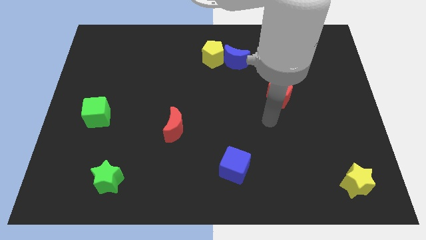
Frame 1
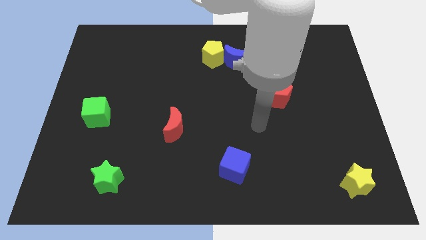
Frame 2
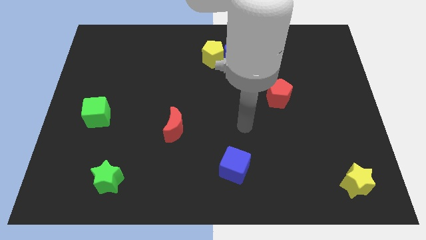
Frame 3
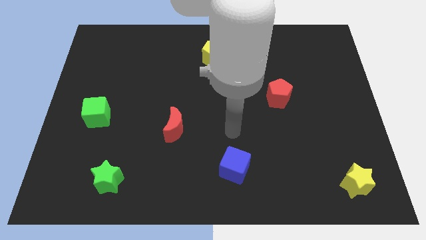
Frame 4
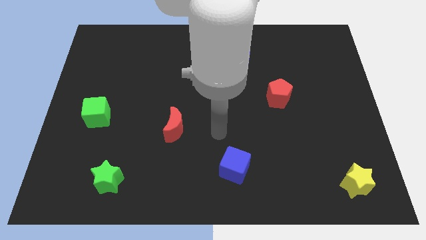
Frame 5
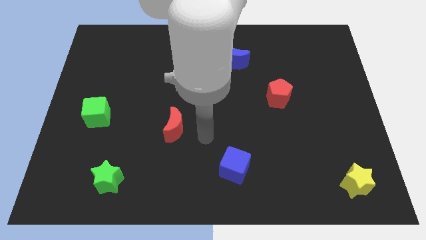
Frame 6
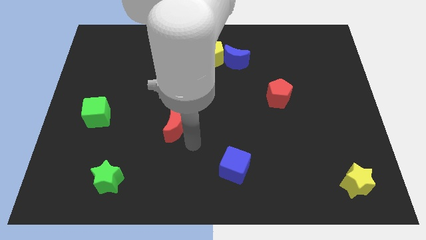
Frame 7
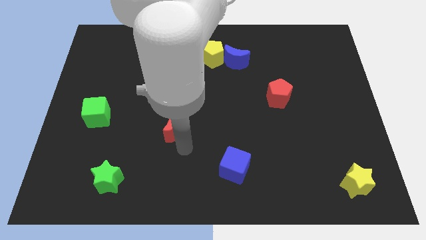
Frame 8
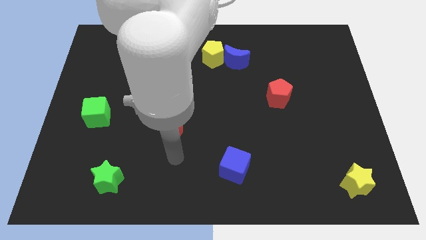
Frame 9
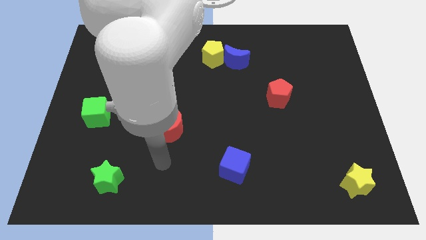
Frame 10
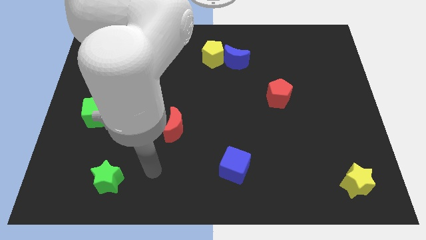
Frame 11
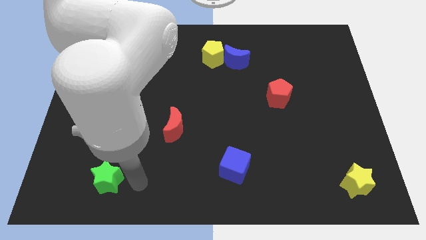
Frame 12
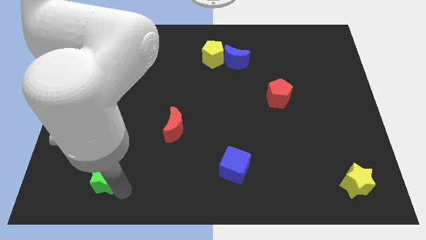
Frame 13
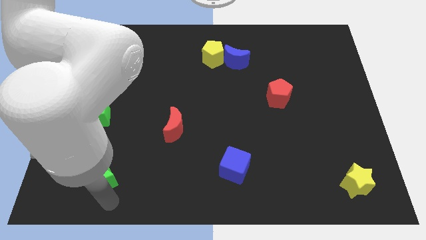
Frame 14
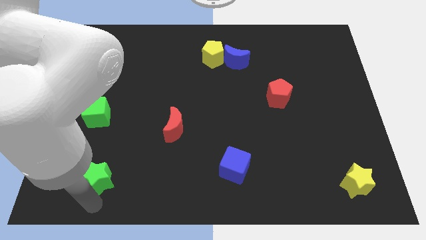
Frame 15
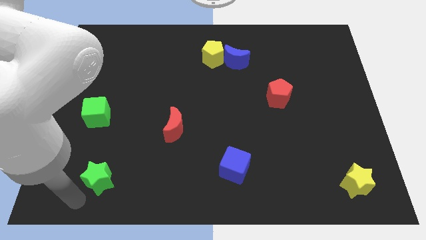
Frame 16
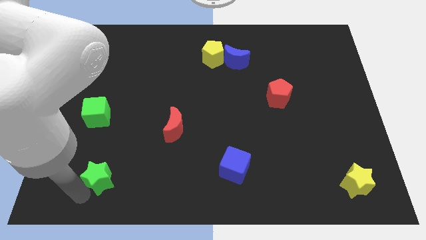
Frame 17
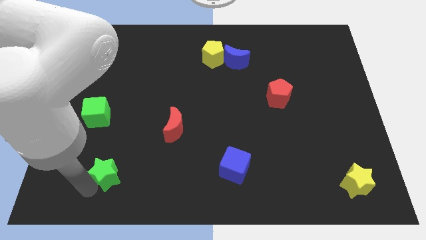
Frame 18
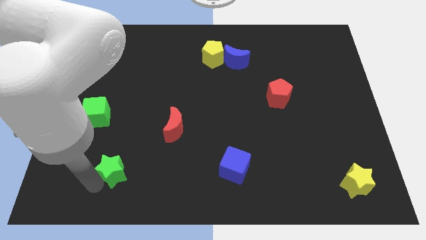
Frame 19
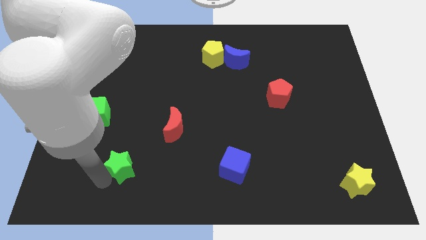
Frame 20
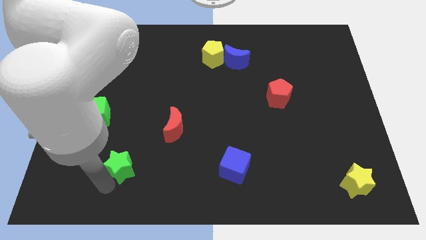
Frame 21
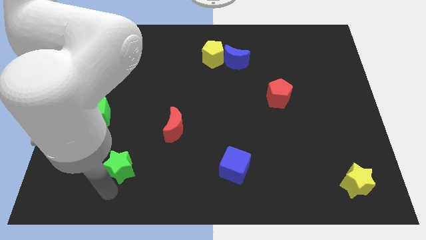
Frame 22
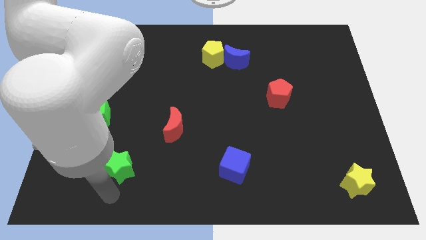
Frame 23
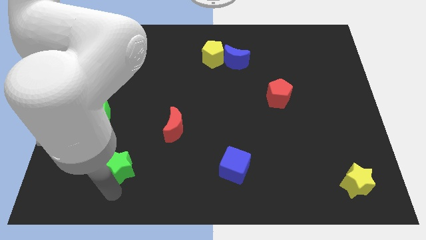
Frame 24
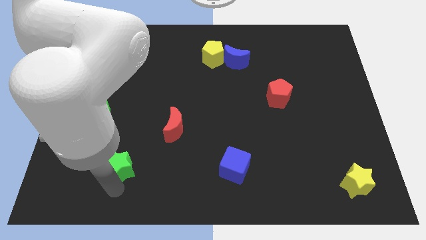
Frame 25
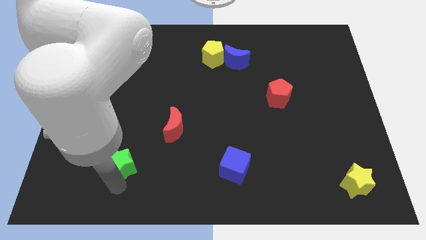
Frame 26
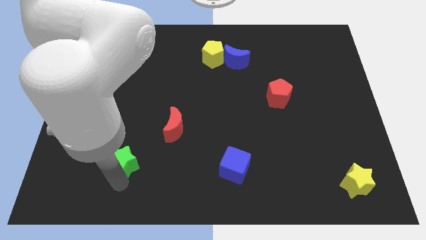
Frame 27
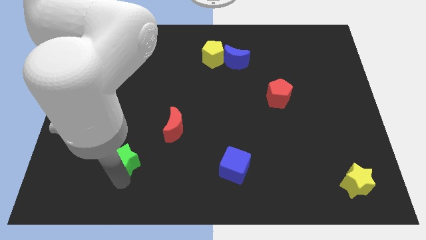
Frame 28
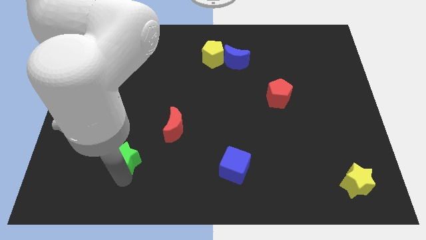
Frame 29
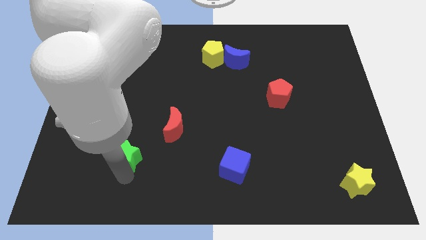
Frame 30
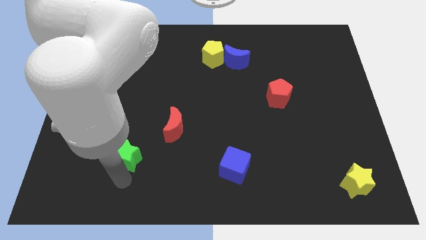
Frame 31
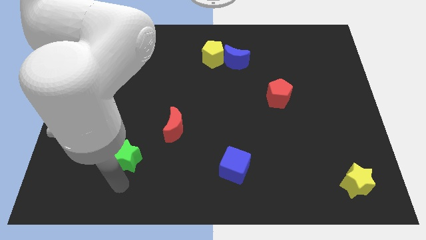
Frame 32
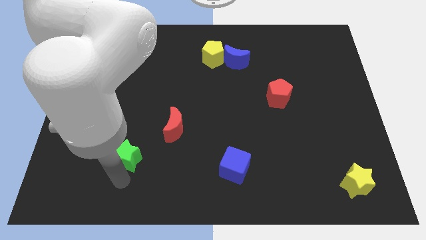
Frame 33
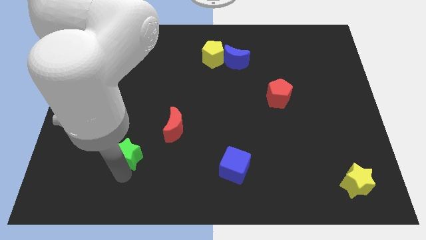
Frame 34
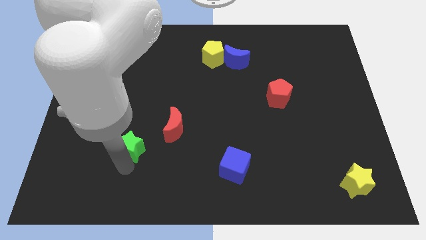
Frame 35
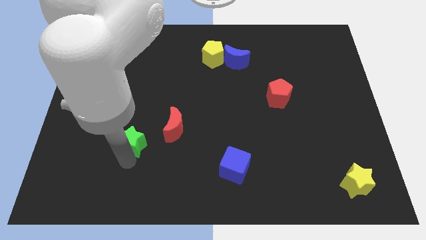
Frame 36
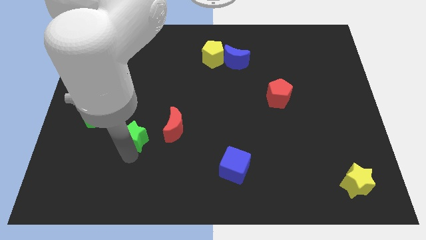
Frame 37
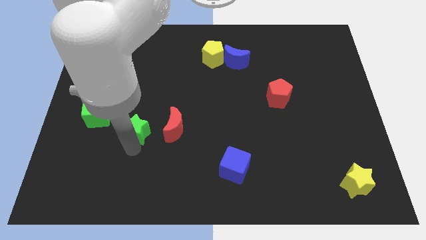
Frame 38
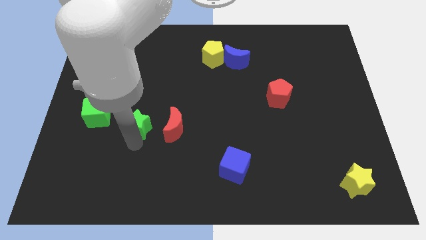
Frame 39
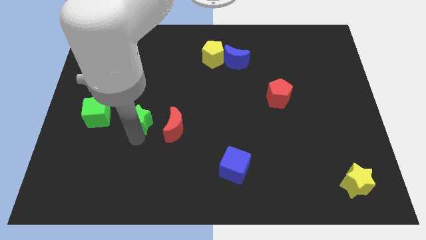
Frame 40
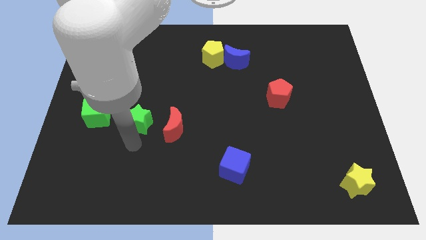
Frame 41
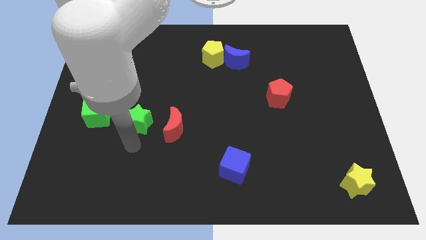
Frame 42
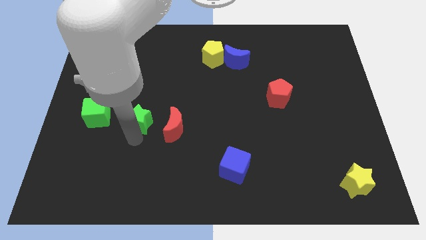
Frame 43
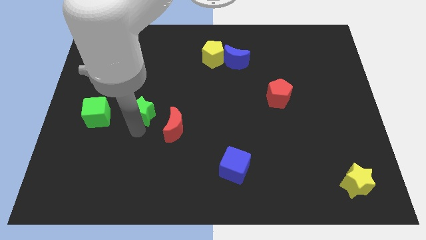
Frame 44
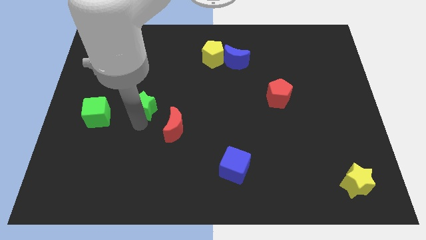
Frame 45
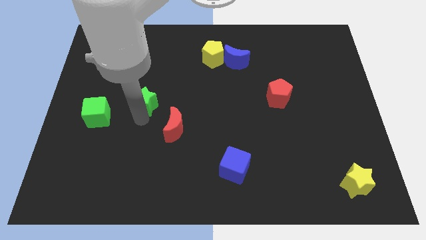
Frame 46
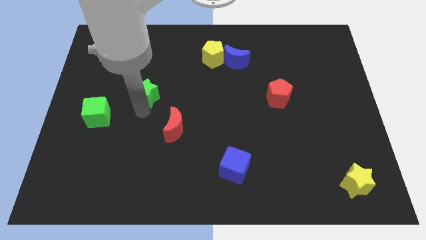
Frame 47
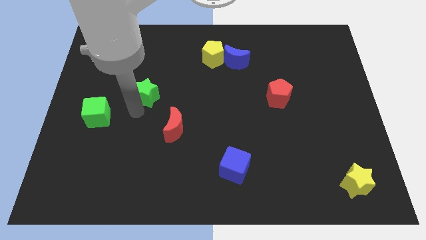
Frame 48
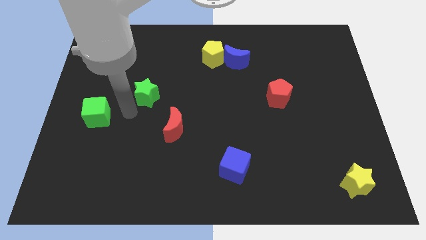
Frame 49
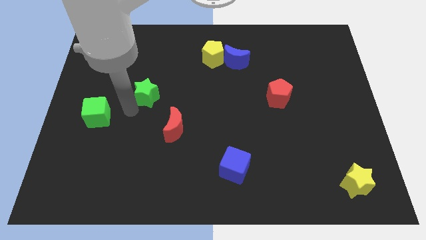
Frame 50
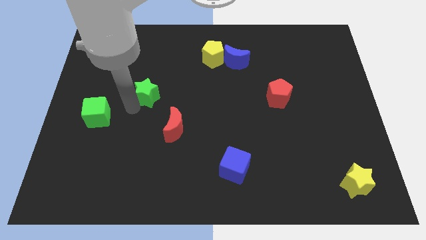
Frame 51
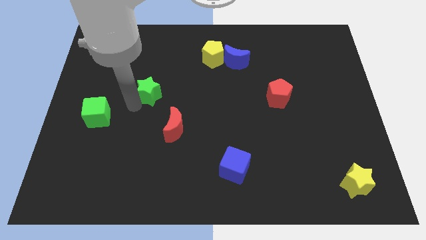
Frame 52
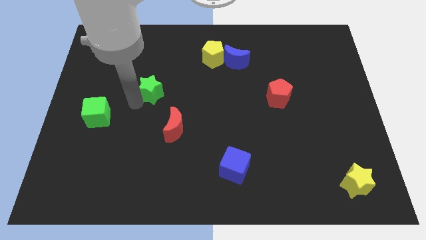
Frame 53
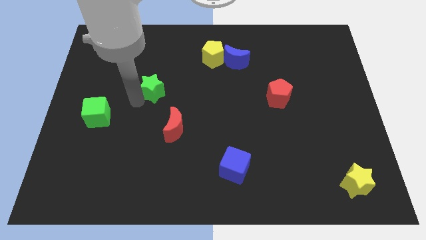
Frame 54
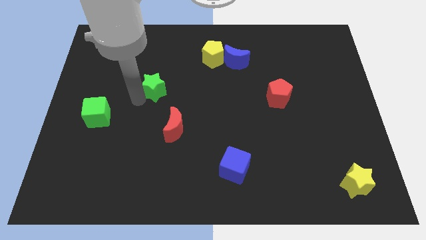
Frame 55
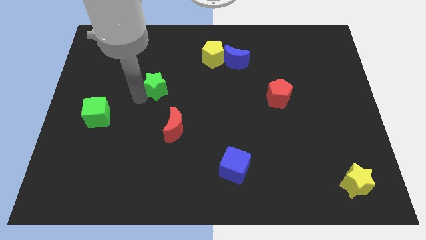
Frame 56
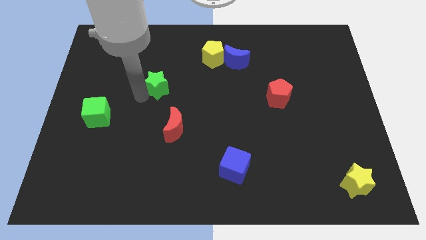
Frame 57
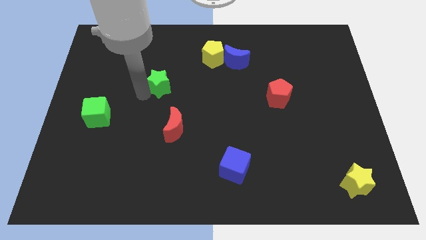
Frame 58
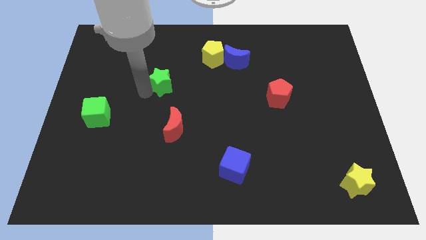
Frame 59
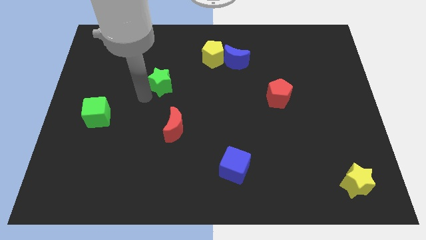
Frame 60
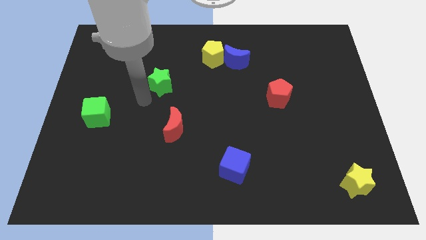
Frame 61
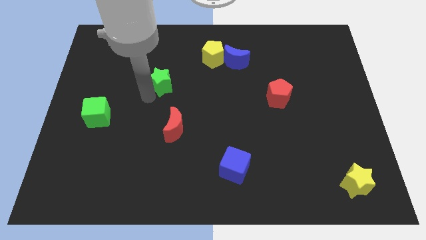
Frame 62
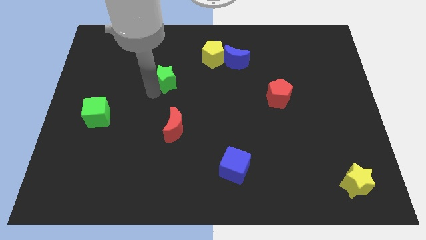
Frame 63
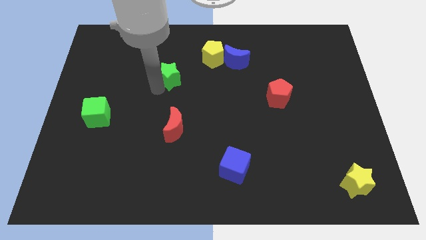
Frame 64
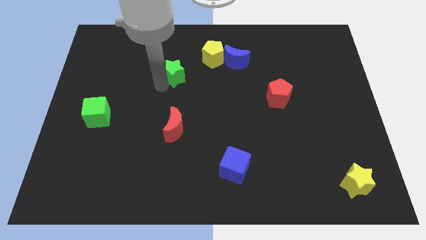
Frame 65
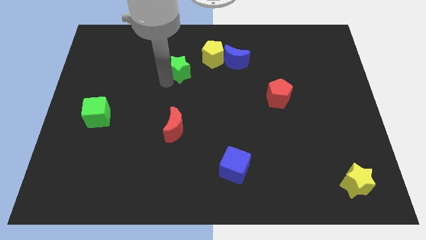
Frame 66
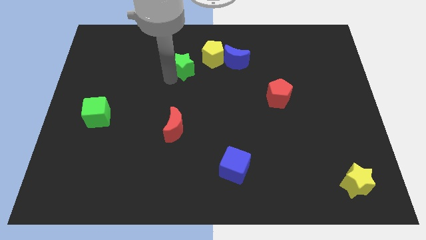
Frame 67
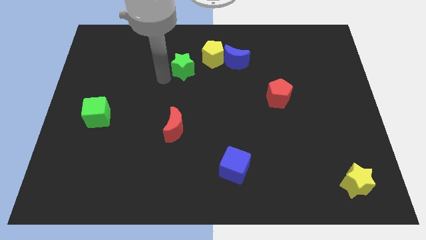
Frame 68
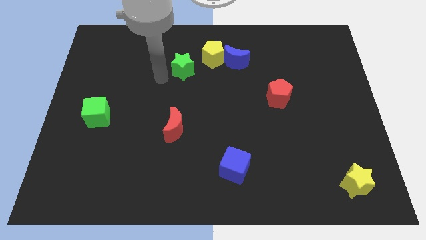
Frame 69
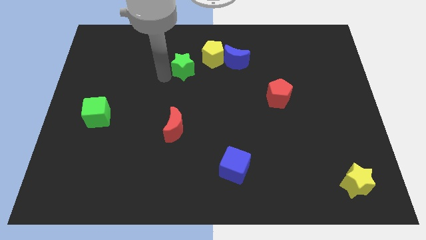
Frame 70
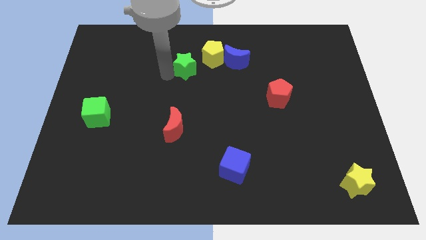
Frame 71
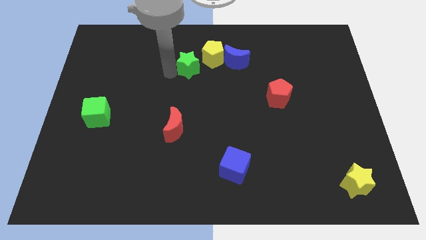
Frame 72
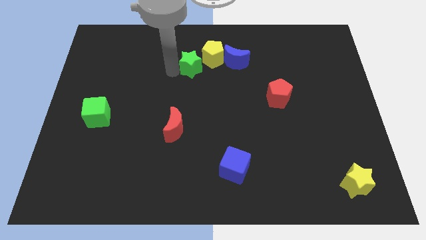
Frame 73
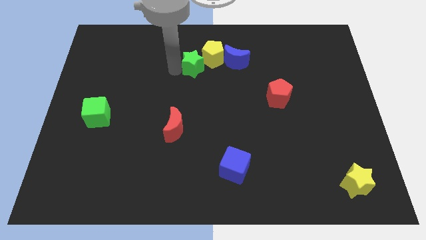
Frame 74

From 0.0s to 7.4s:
put the green star to the yellow pentagon
